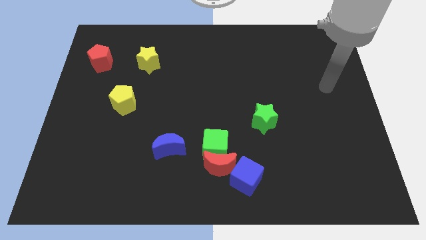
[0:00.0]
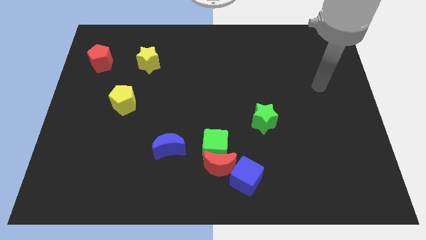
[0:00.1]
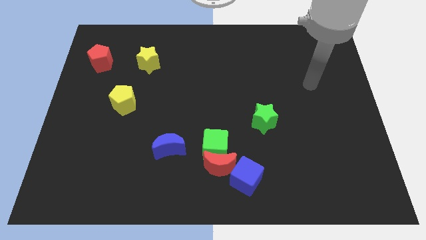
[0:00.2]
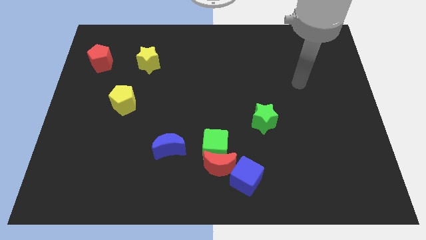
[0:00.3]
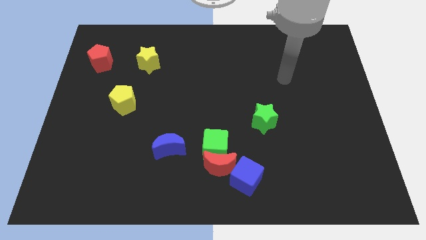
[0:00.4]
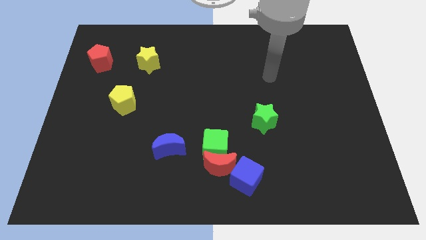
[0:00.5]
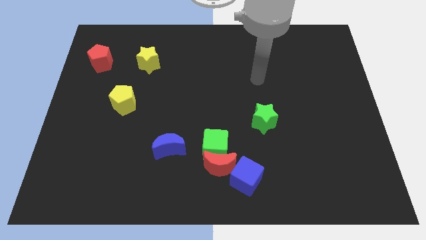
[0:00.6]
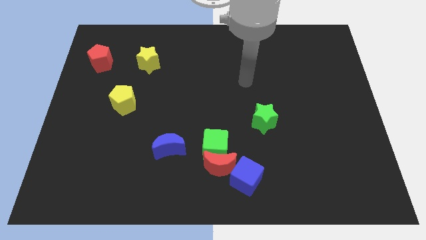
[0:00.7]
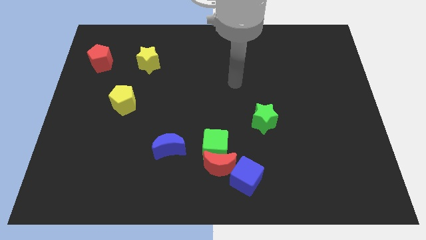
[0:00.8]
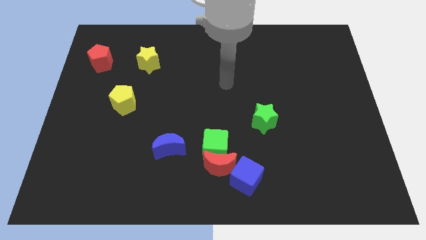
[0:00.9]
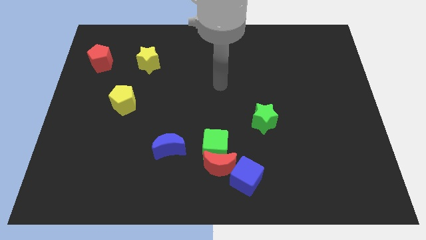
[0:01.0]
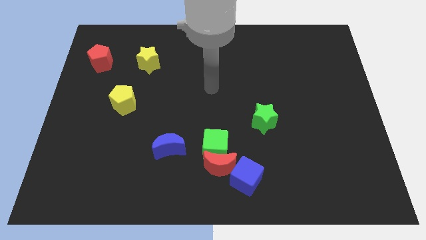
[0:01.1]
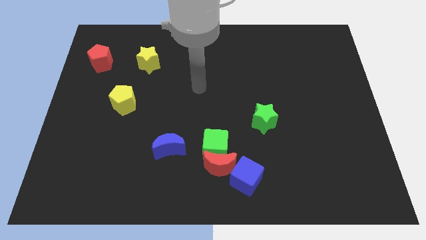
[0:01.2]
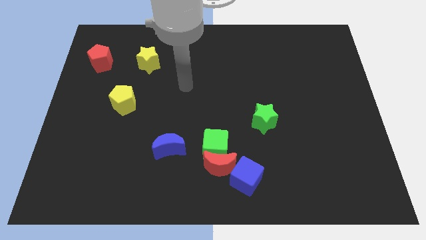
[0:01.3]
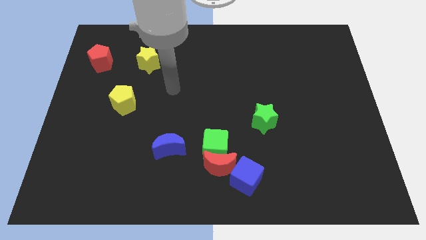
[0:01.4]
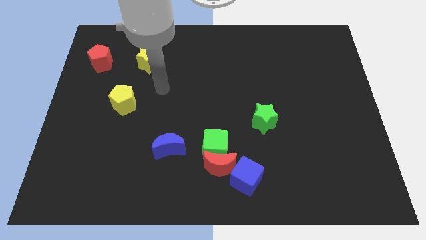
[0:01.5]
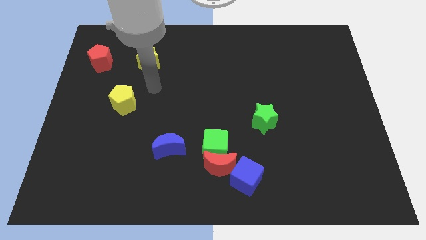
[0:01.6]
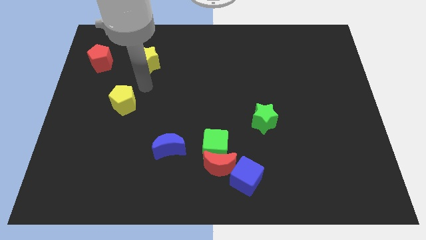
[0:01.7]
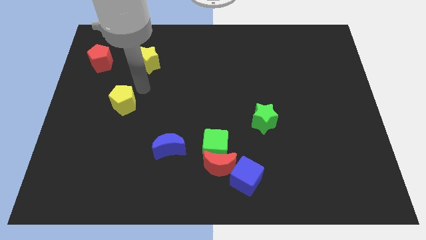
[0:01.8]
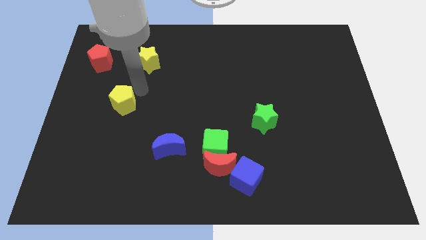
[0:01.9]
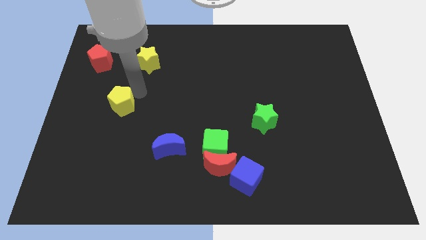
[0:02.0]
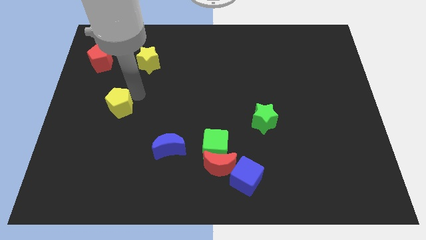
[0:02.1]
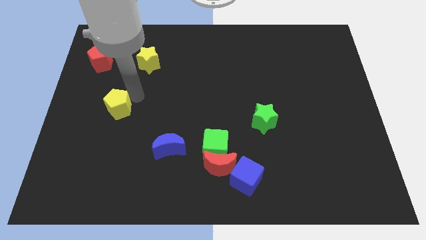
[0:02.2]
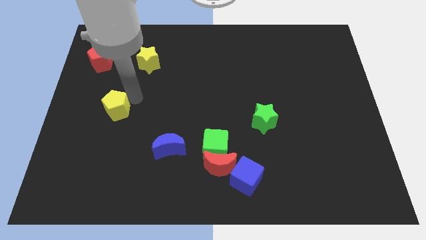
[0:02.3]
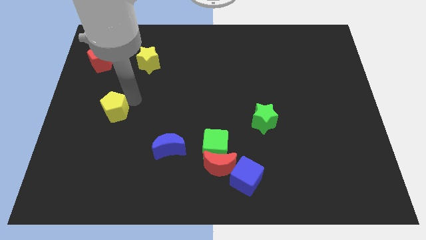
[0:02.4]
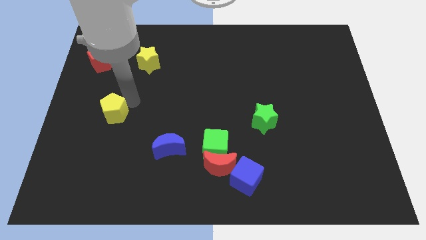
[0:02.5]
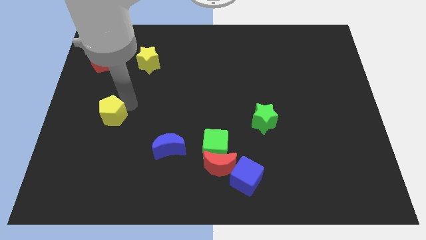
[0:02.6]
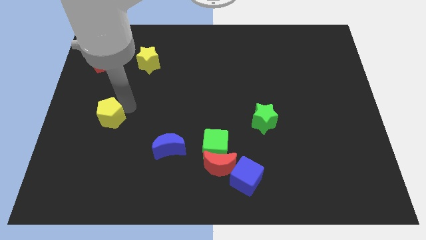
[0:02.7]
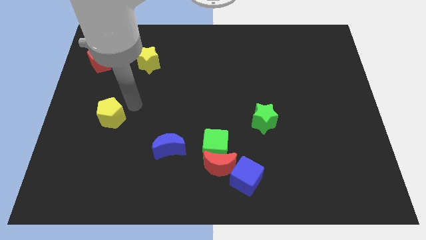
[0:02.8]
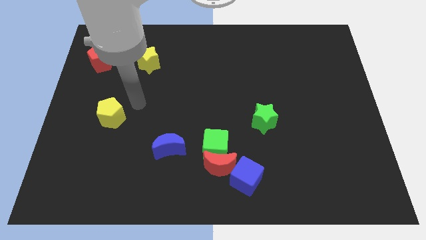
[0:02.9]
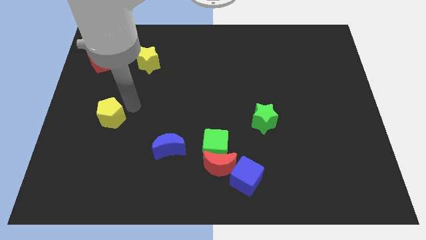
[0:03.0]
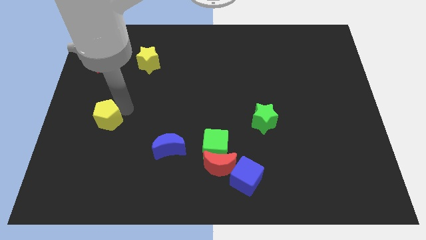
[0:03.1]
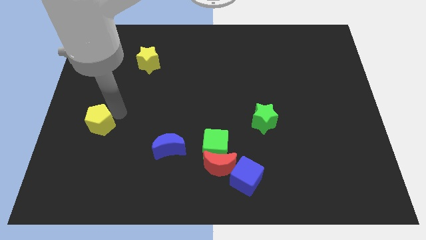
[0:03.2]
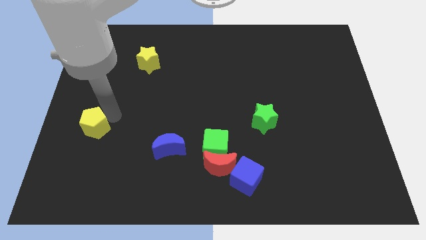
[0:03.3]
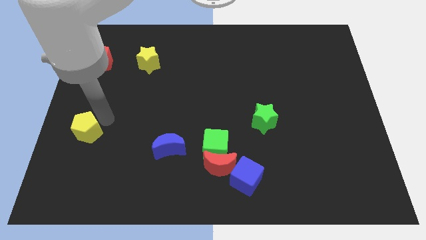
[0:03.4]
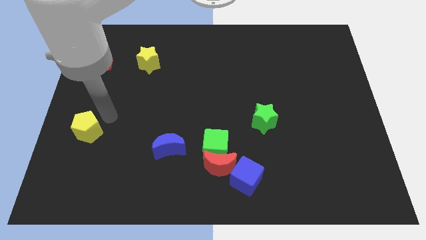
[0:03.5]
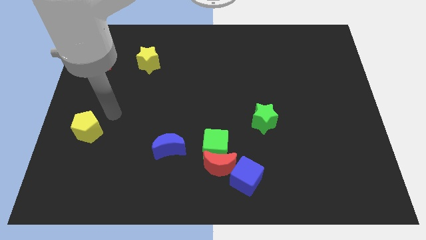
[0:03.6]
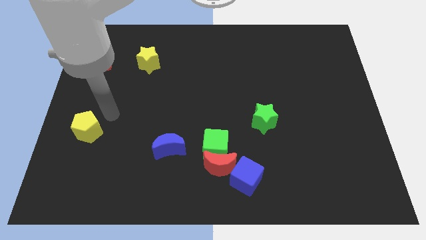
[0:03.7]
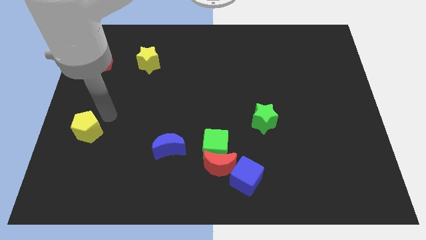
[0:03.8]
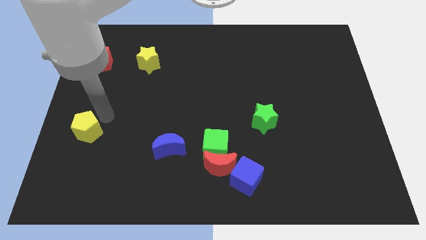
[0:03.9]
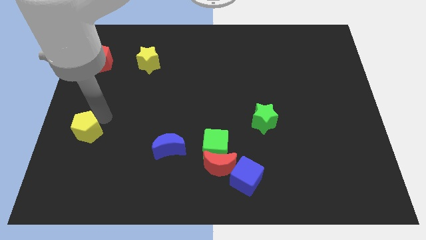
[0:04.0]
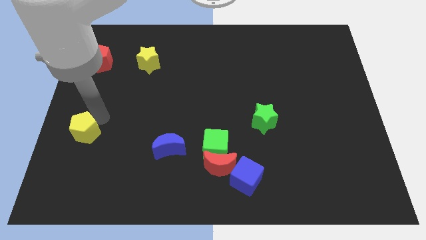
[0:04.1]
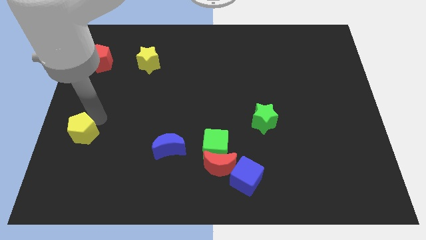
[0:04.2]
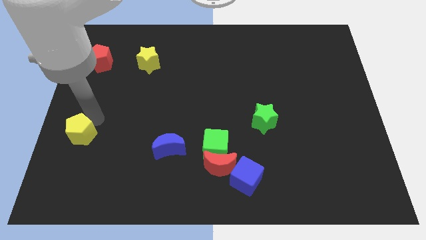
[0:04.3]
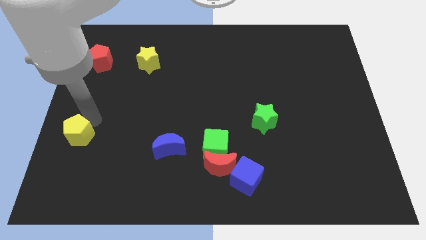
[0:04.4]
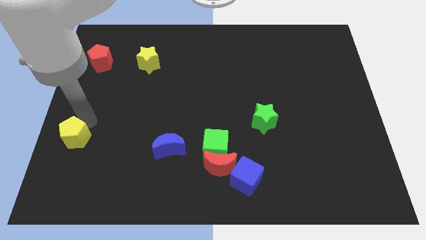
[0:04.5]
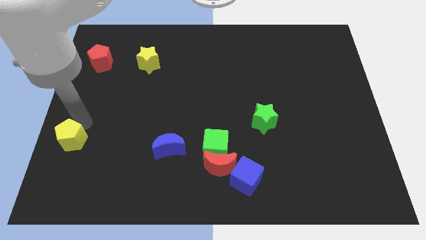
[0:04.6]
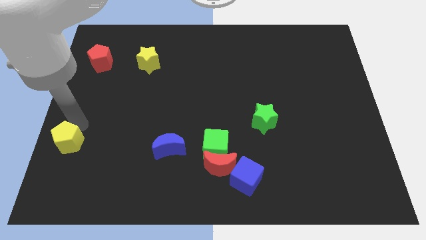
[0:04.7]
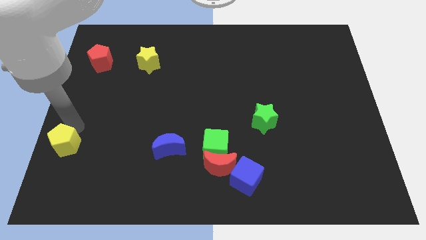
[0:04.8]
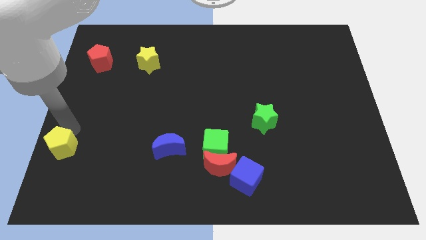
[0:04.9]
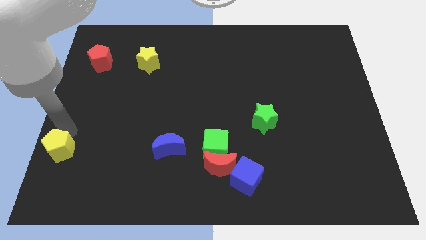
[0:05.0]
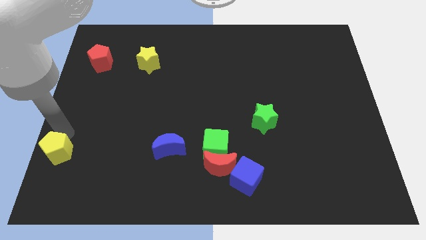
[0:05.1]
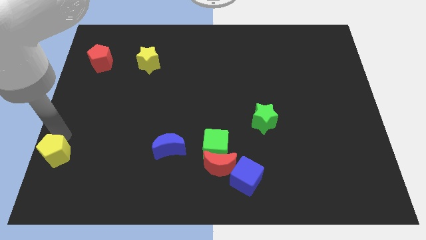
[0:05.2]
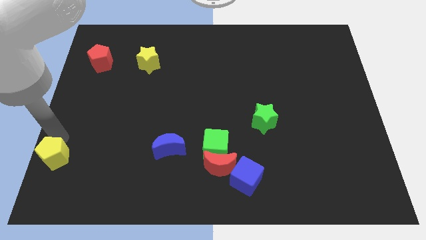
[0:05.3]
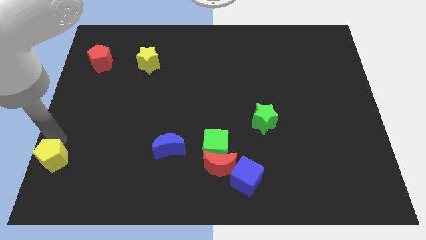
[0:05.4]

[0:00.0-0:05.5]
move the yellow pentagon to the lower left corner

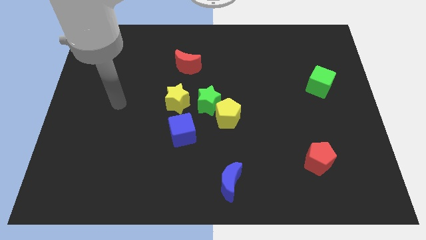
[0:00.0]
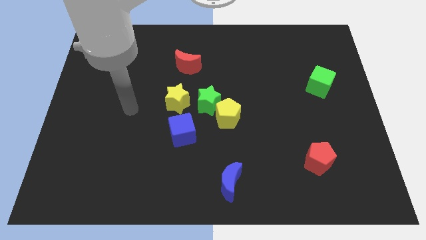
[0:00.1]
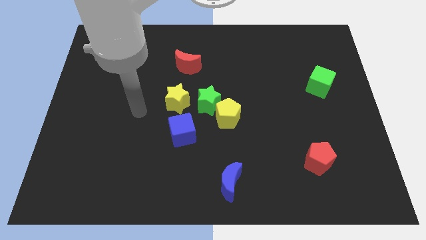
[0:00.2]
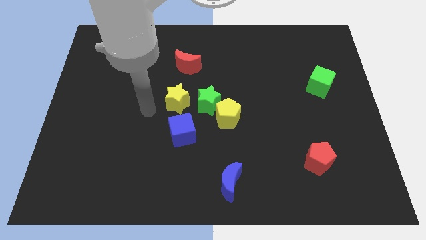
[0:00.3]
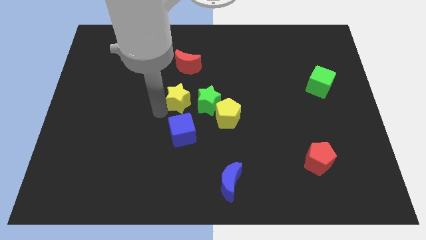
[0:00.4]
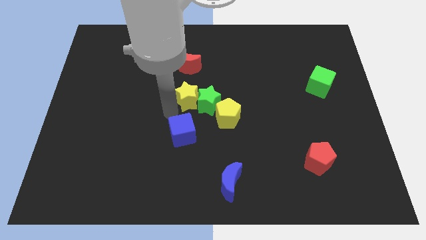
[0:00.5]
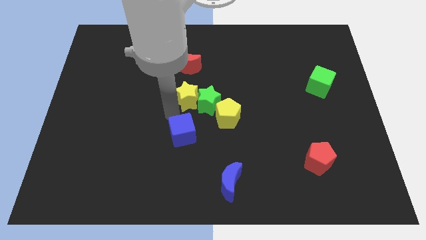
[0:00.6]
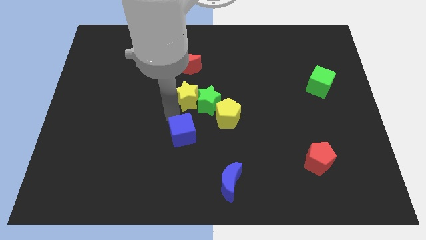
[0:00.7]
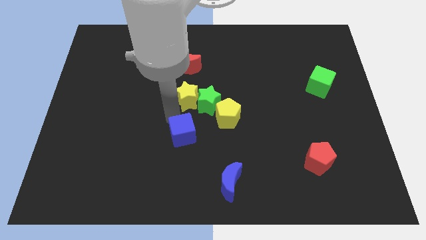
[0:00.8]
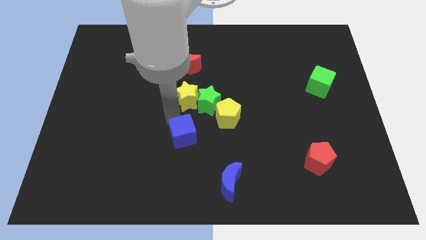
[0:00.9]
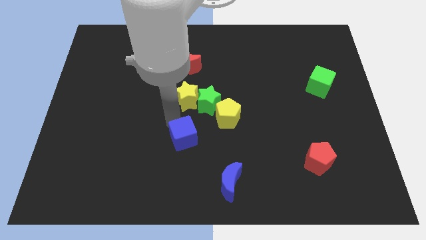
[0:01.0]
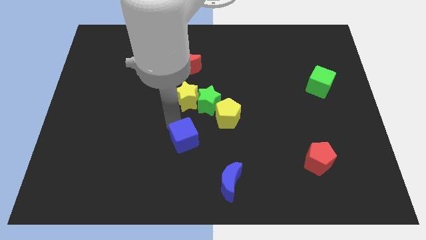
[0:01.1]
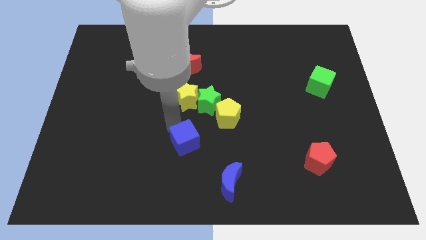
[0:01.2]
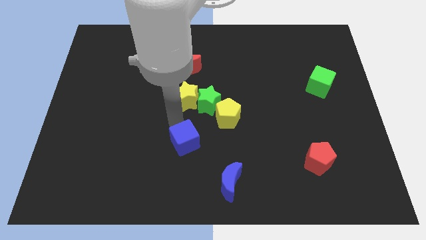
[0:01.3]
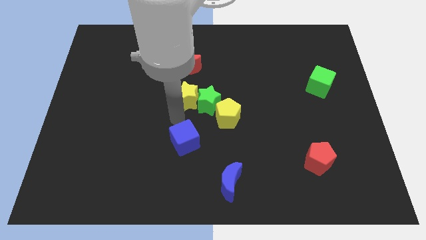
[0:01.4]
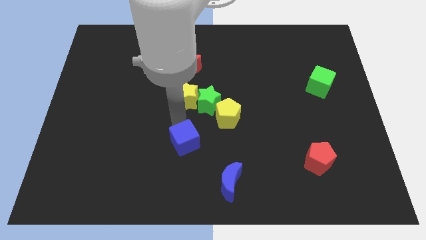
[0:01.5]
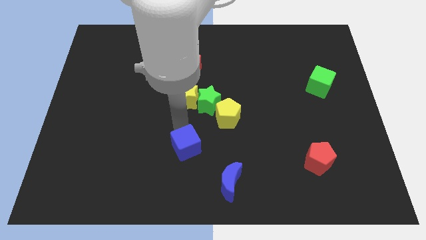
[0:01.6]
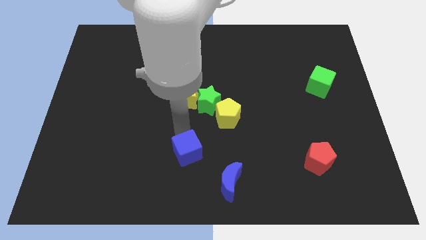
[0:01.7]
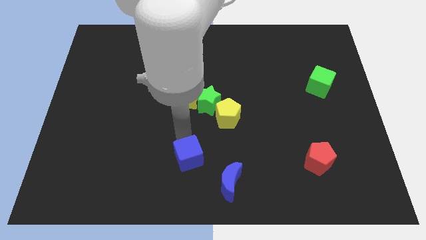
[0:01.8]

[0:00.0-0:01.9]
push the blue cube to the bottom
